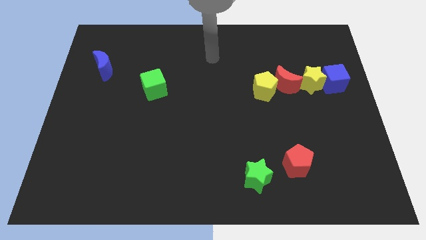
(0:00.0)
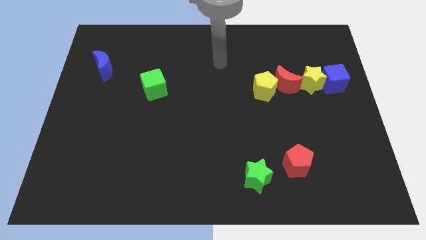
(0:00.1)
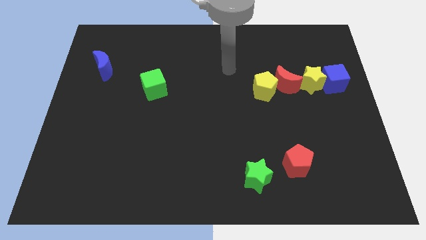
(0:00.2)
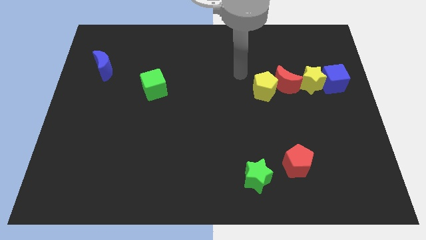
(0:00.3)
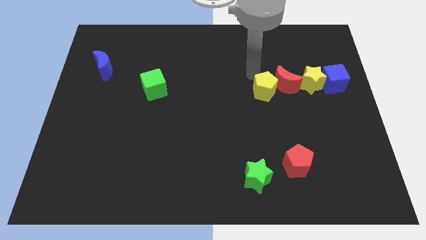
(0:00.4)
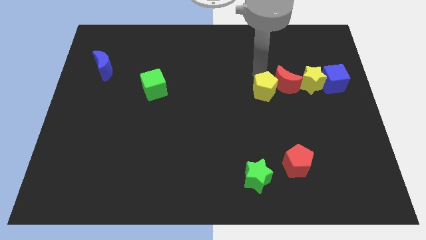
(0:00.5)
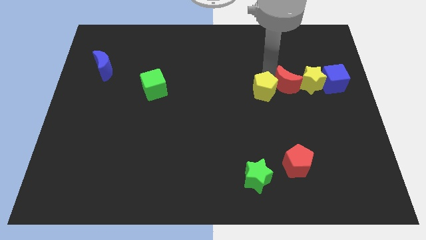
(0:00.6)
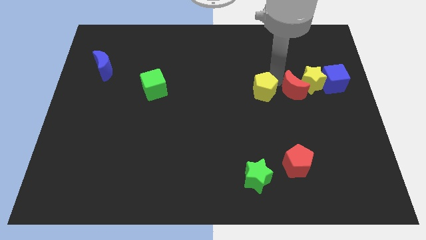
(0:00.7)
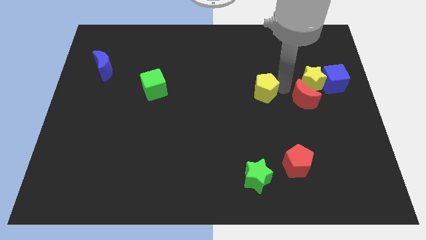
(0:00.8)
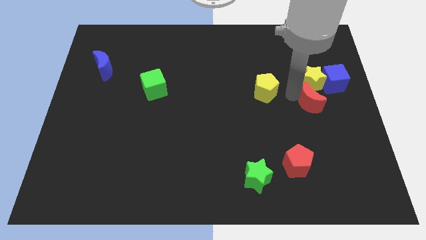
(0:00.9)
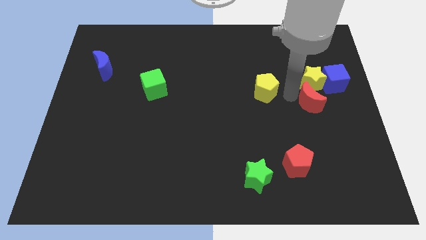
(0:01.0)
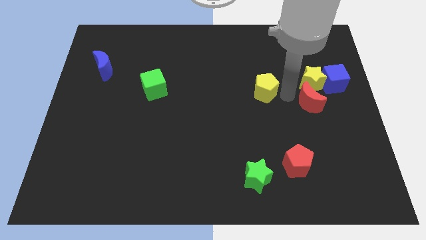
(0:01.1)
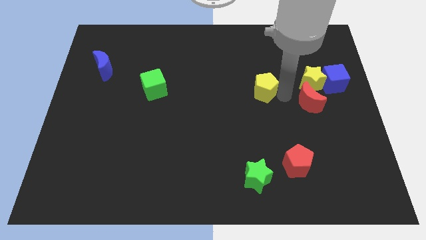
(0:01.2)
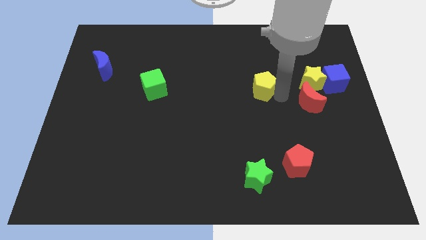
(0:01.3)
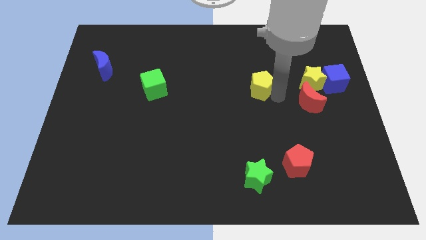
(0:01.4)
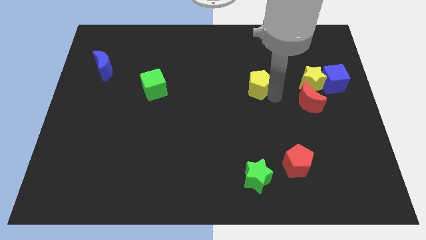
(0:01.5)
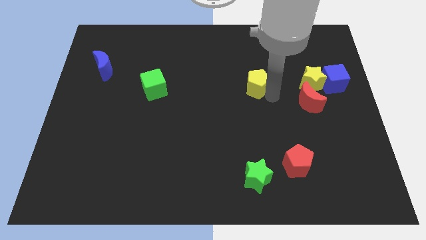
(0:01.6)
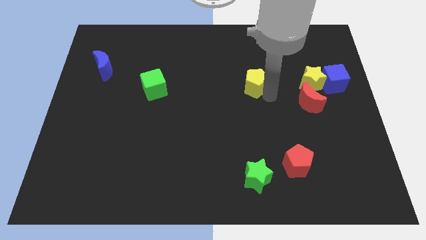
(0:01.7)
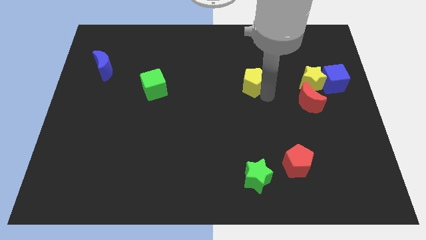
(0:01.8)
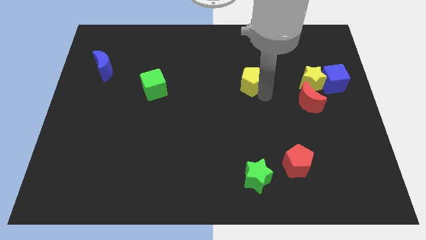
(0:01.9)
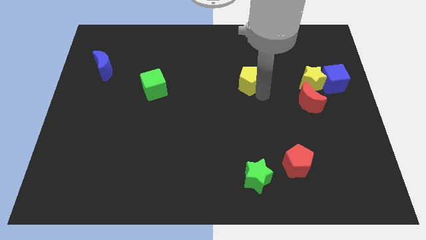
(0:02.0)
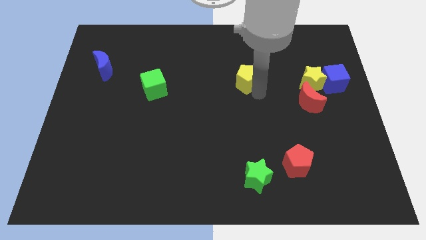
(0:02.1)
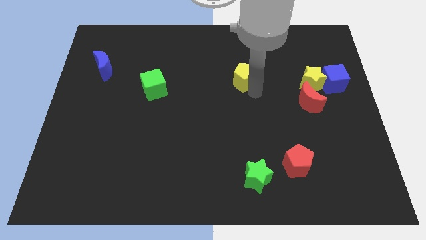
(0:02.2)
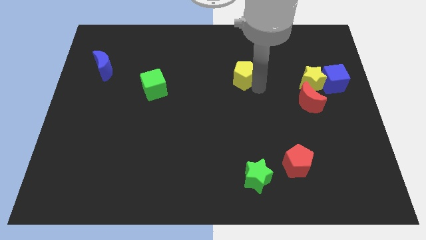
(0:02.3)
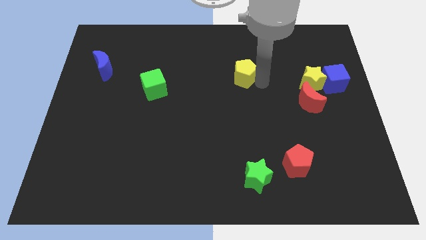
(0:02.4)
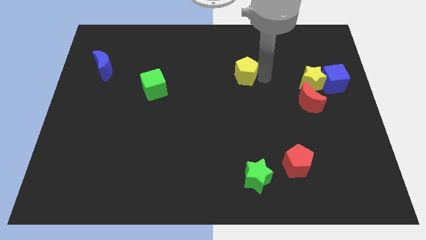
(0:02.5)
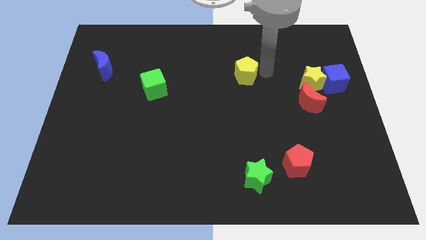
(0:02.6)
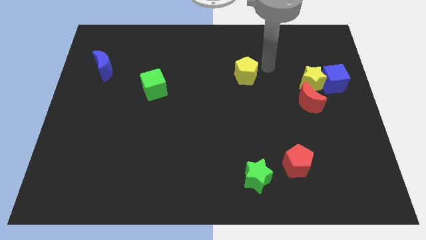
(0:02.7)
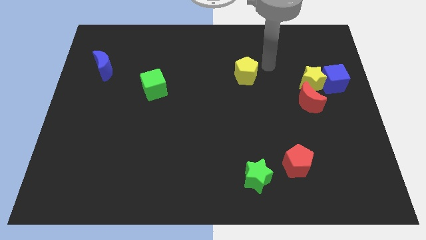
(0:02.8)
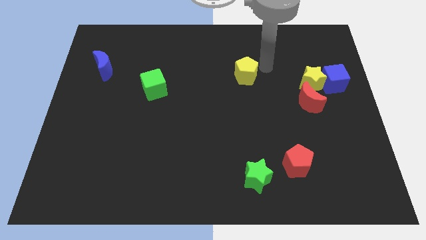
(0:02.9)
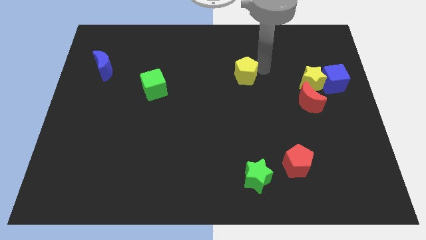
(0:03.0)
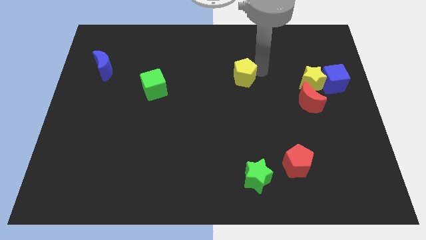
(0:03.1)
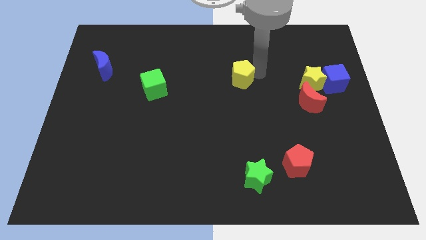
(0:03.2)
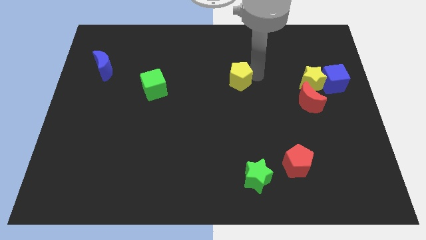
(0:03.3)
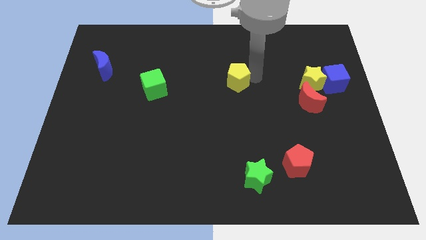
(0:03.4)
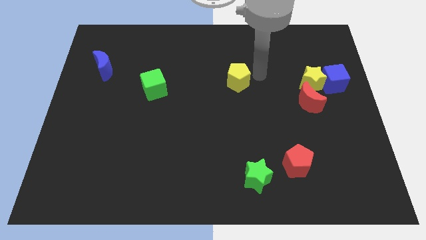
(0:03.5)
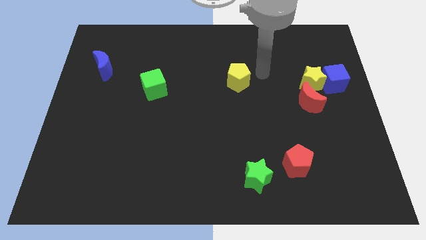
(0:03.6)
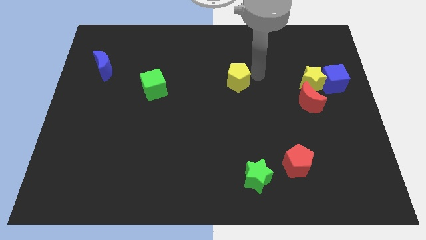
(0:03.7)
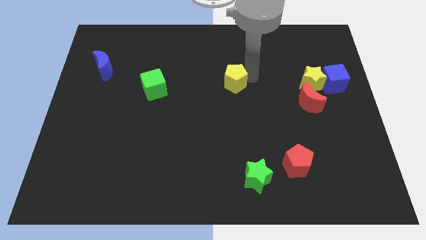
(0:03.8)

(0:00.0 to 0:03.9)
push the yellow pentagon a little bit to the left

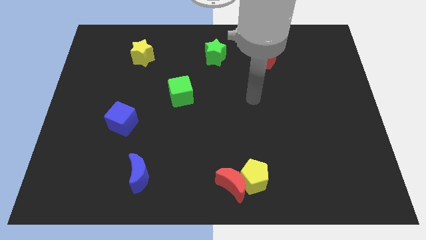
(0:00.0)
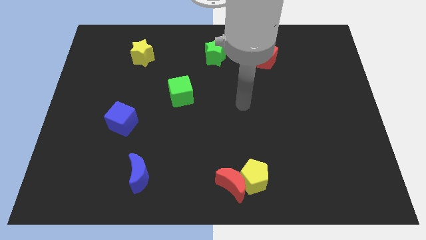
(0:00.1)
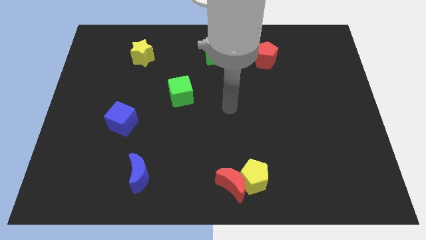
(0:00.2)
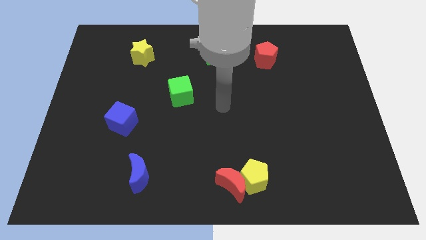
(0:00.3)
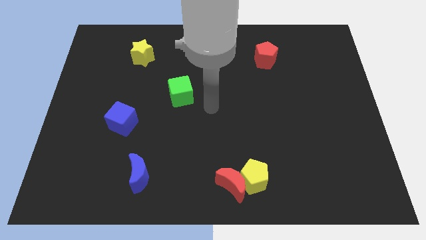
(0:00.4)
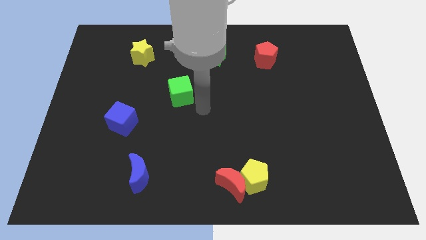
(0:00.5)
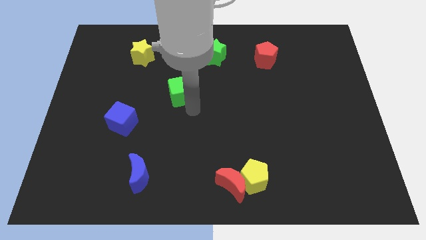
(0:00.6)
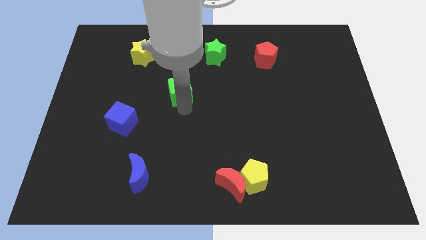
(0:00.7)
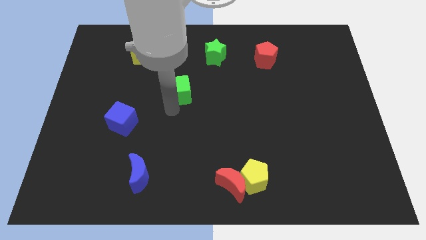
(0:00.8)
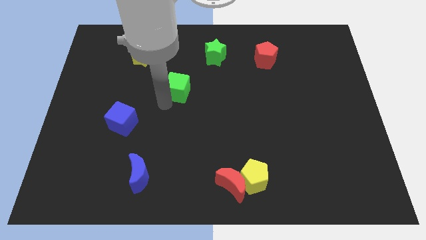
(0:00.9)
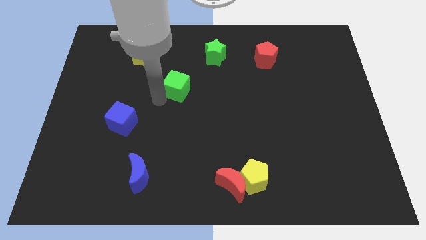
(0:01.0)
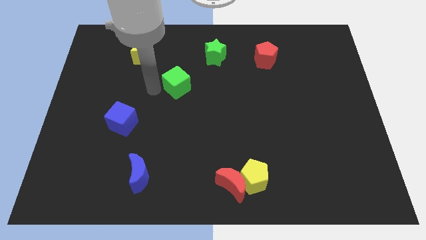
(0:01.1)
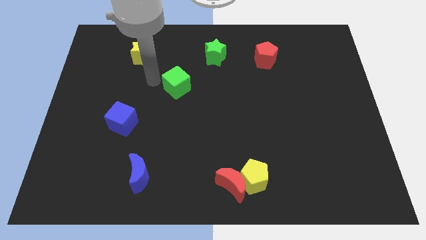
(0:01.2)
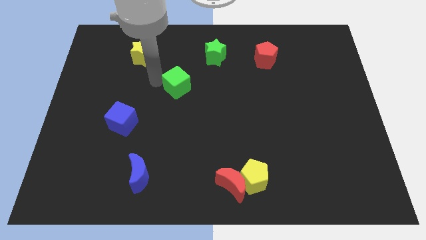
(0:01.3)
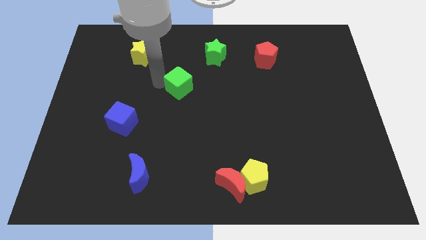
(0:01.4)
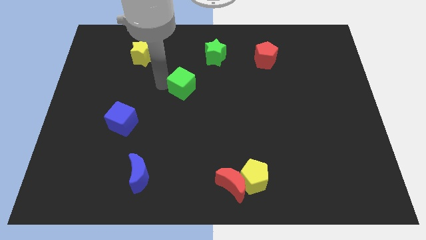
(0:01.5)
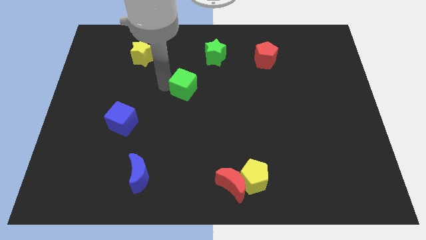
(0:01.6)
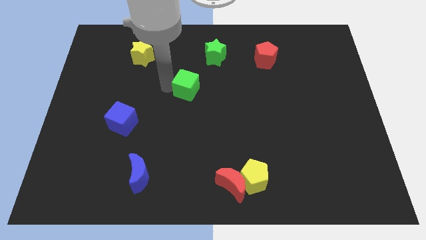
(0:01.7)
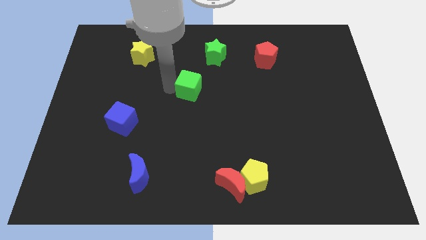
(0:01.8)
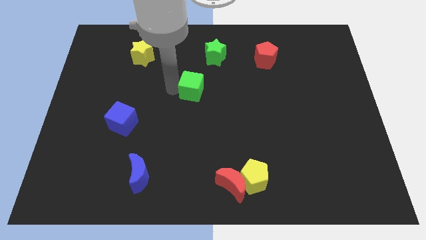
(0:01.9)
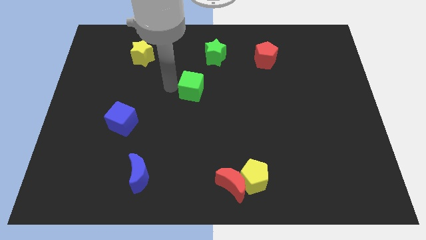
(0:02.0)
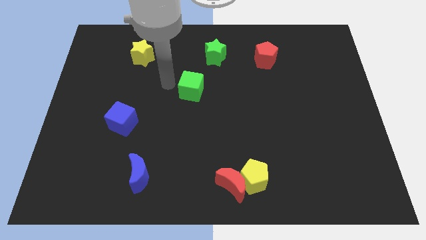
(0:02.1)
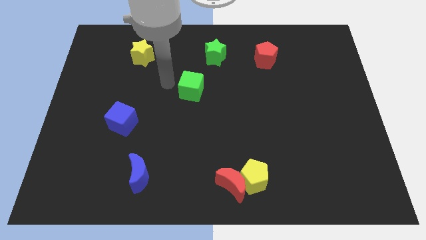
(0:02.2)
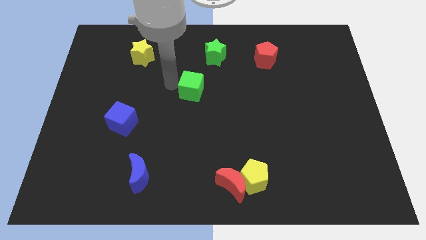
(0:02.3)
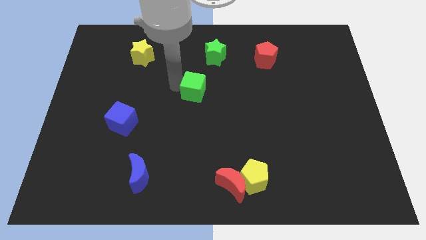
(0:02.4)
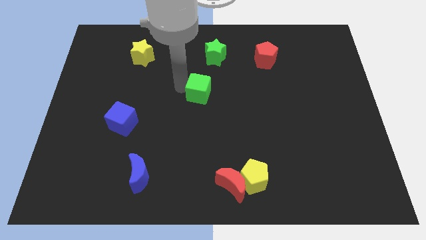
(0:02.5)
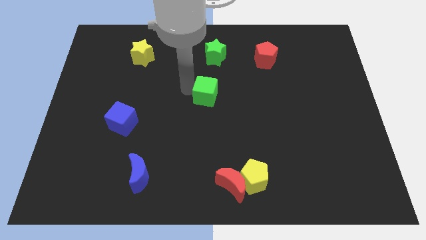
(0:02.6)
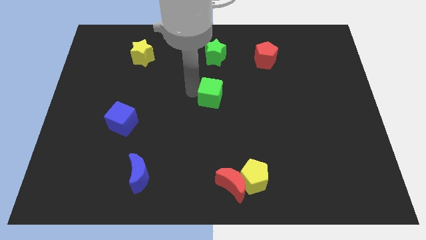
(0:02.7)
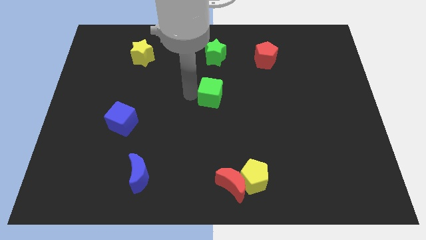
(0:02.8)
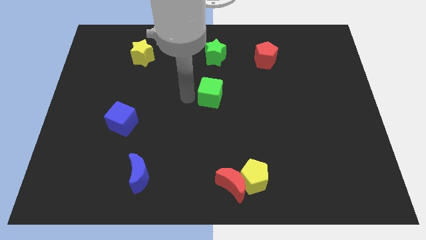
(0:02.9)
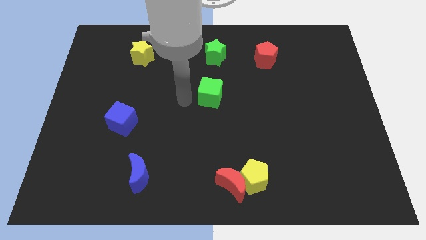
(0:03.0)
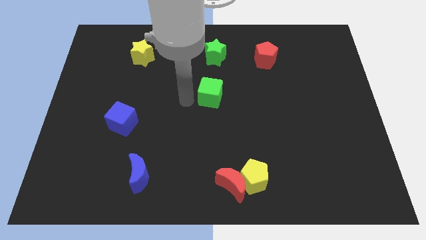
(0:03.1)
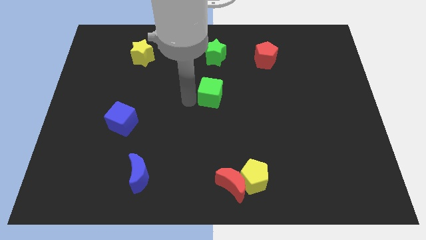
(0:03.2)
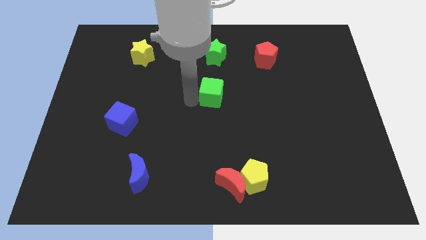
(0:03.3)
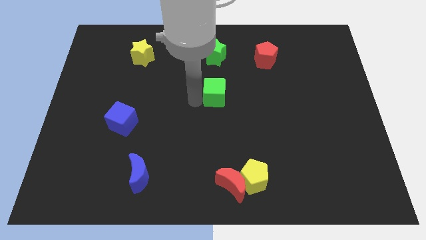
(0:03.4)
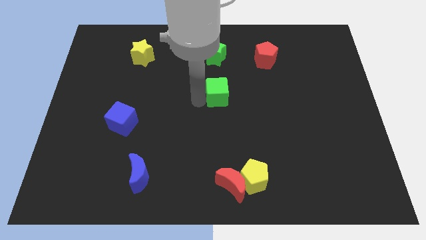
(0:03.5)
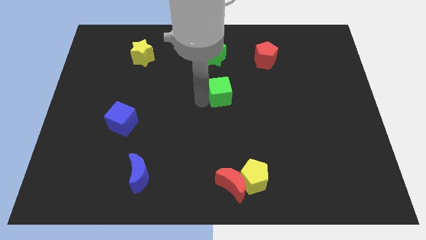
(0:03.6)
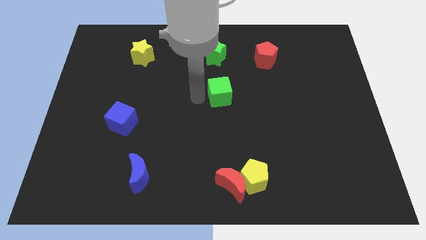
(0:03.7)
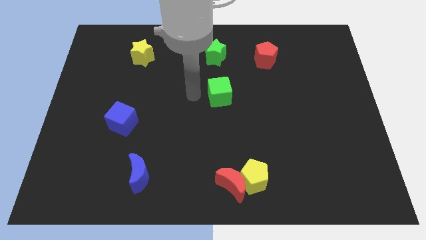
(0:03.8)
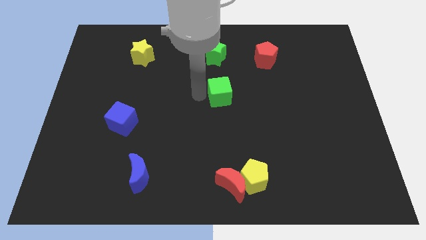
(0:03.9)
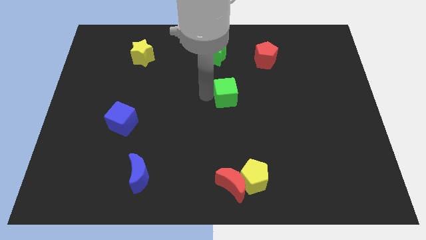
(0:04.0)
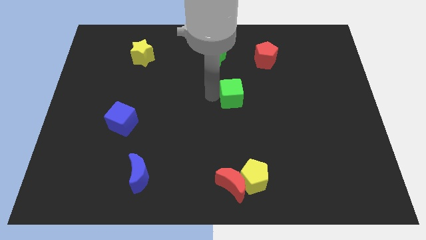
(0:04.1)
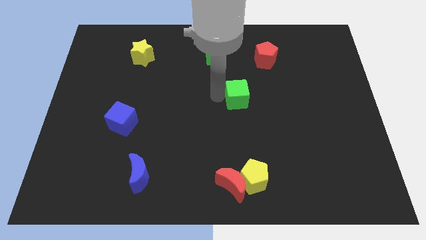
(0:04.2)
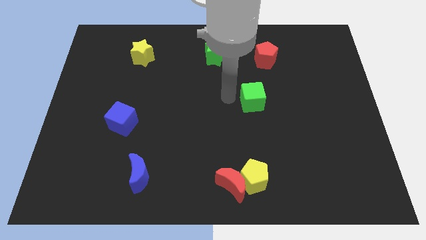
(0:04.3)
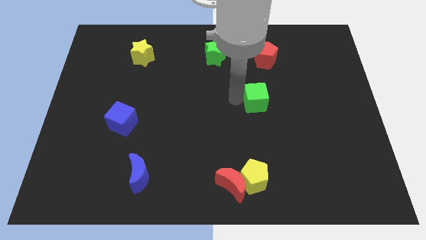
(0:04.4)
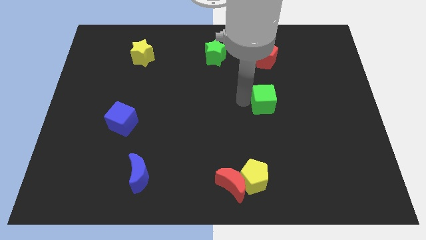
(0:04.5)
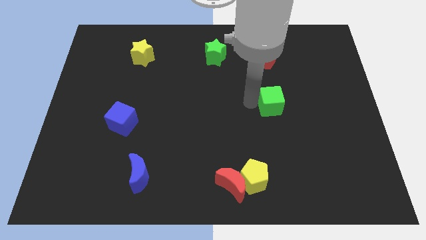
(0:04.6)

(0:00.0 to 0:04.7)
push the green cube to the right
